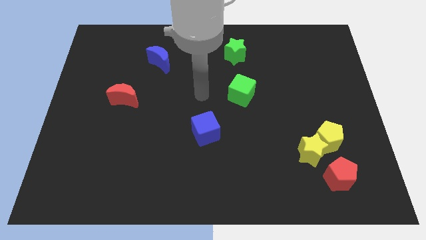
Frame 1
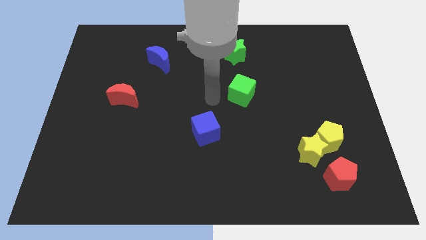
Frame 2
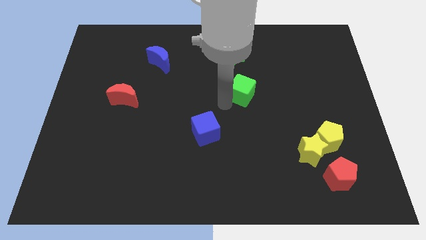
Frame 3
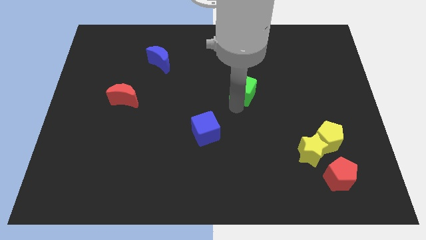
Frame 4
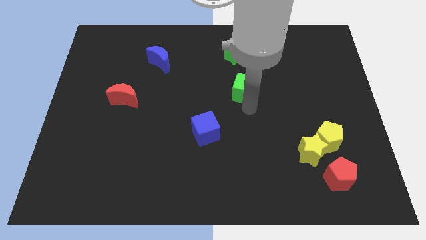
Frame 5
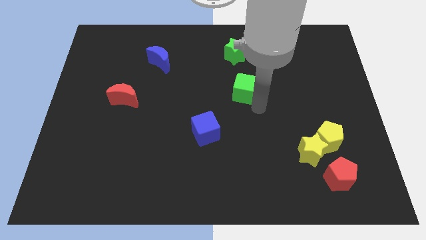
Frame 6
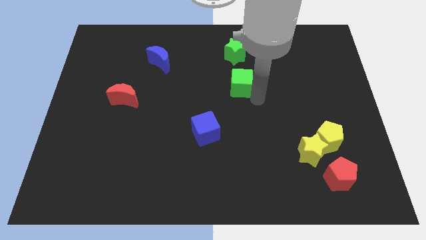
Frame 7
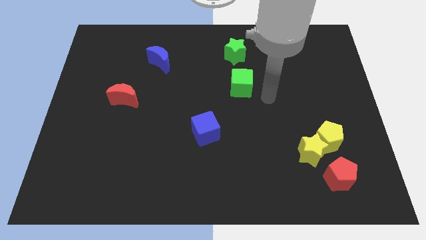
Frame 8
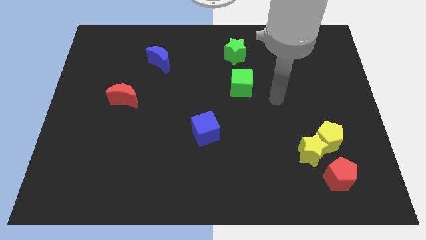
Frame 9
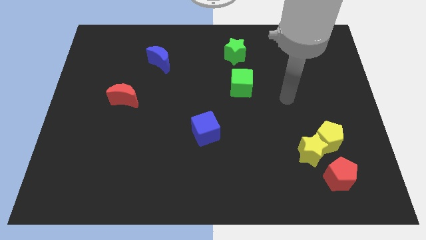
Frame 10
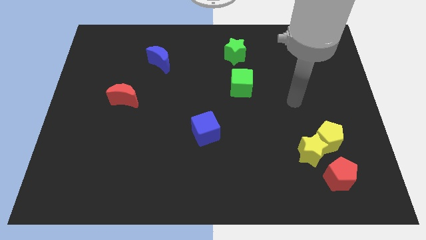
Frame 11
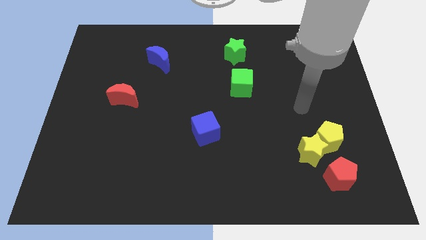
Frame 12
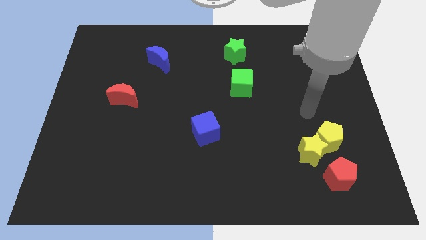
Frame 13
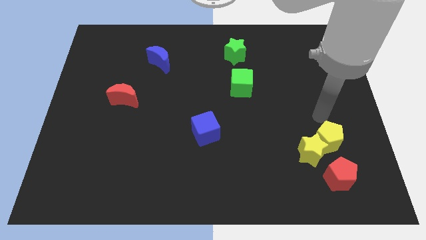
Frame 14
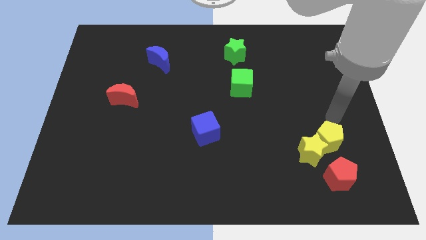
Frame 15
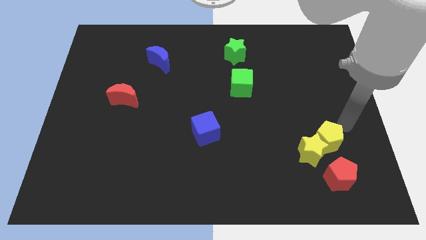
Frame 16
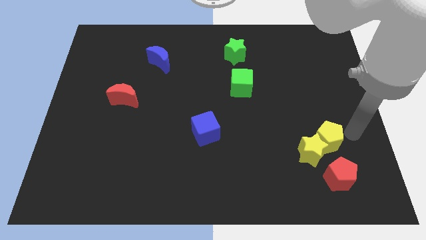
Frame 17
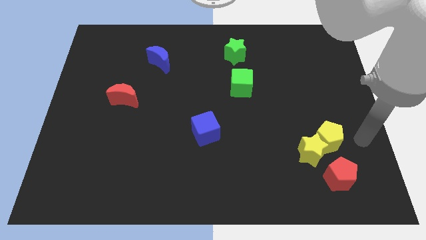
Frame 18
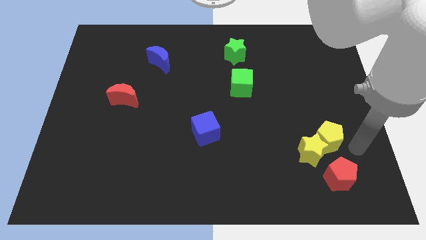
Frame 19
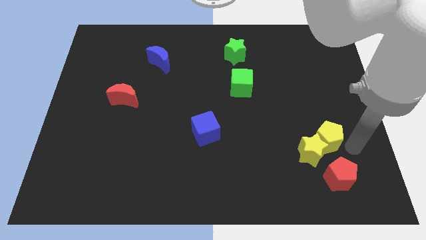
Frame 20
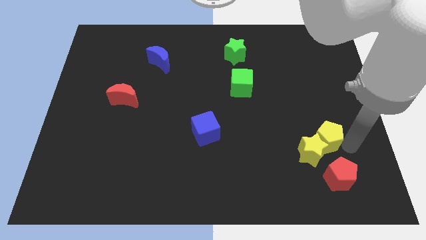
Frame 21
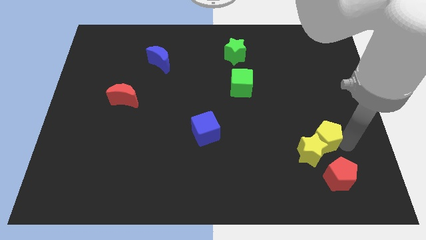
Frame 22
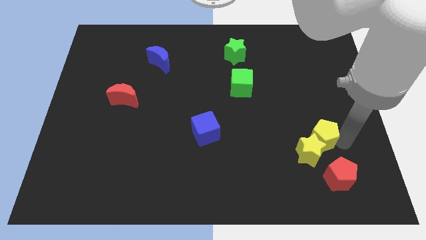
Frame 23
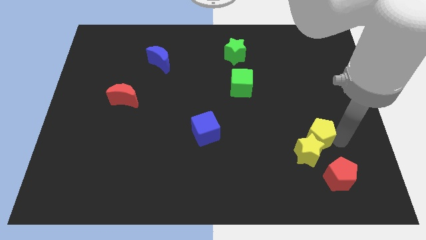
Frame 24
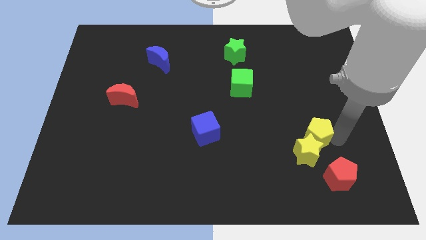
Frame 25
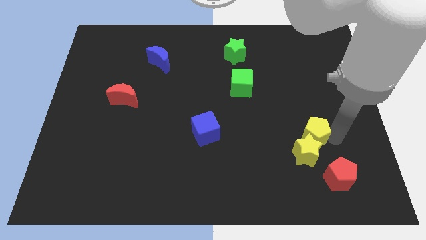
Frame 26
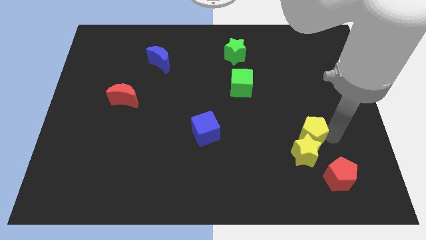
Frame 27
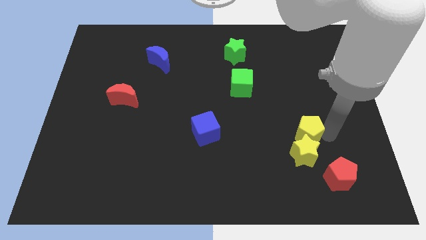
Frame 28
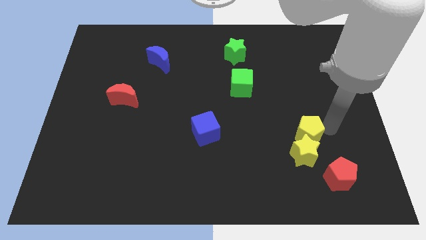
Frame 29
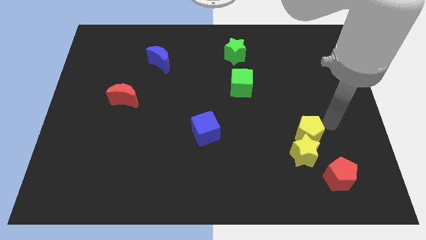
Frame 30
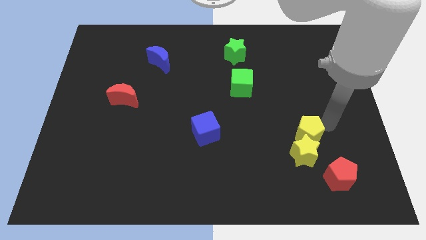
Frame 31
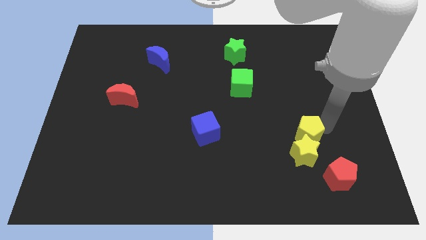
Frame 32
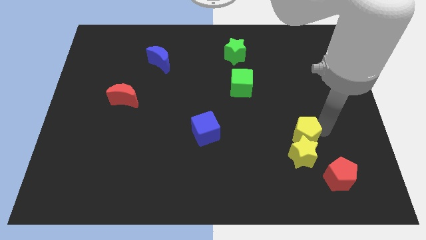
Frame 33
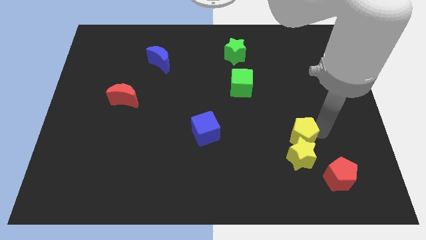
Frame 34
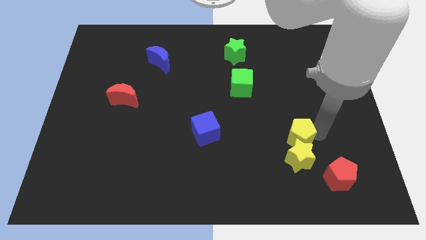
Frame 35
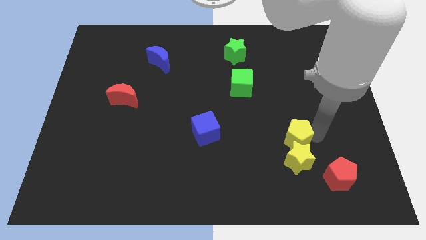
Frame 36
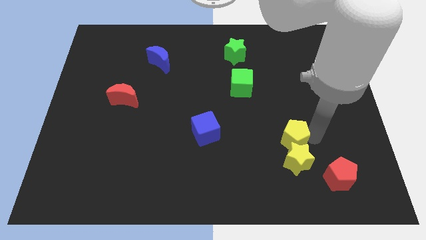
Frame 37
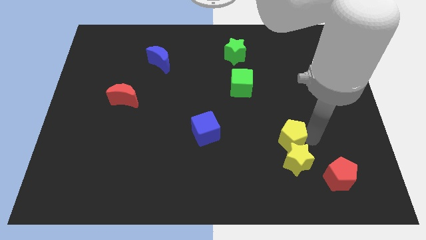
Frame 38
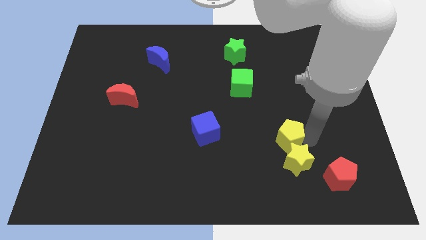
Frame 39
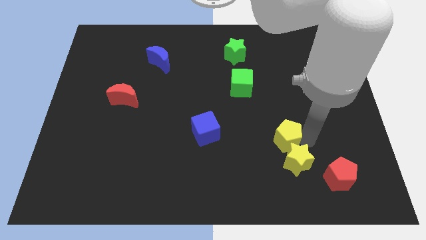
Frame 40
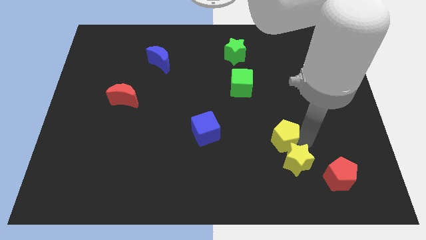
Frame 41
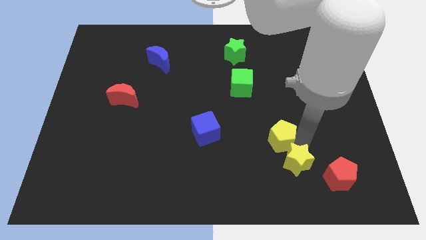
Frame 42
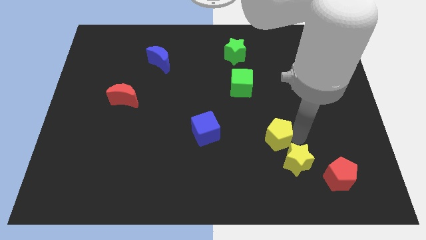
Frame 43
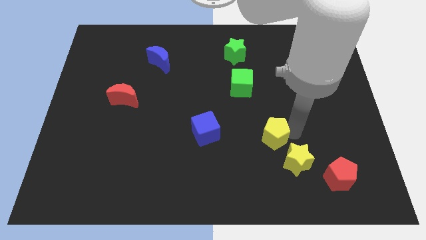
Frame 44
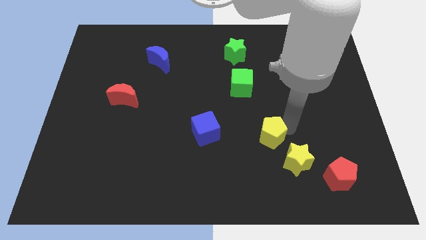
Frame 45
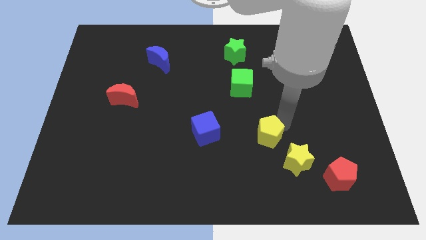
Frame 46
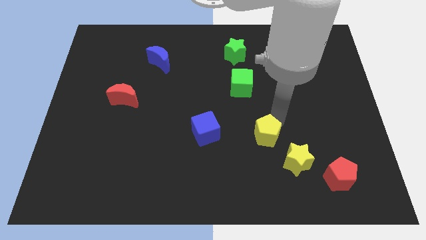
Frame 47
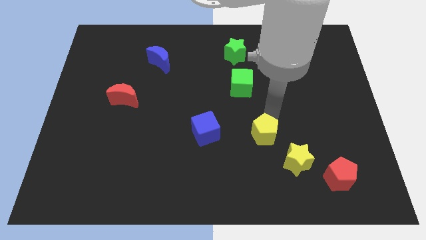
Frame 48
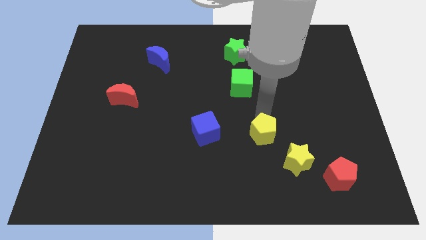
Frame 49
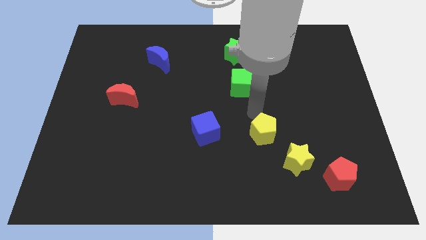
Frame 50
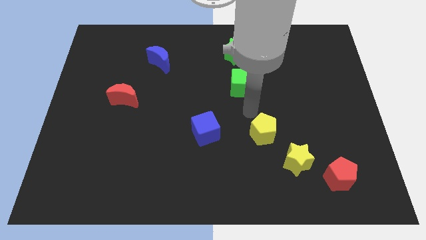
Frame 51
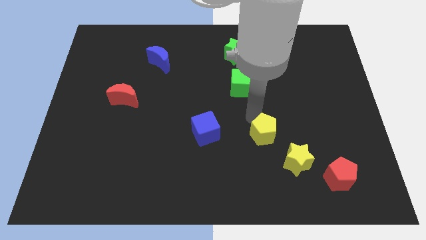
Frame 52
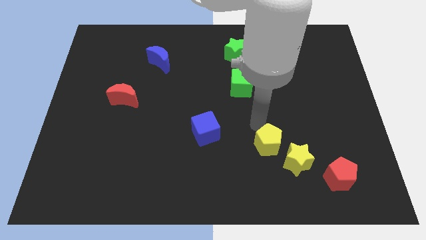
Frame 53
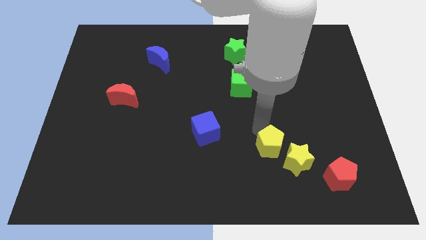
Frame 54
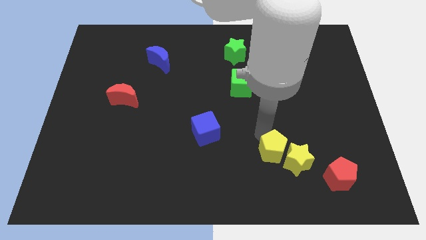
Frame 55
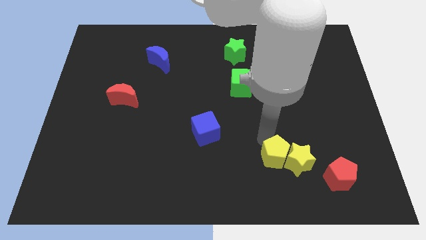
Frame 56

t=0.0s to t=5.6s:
slide the yellow pentagon to the bottom left side of the yellow star

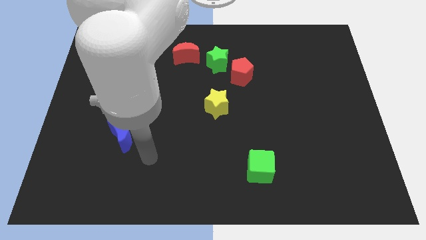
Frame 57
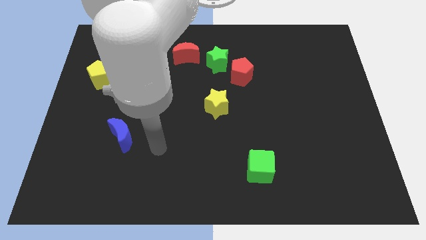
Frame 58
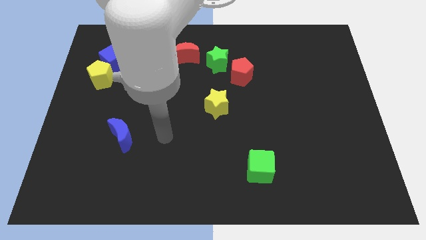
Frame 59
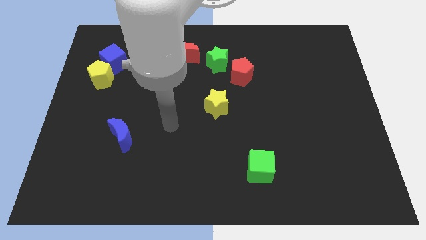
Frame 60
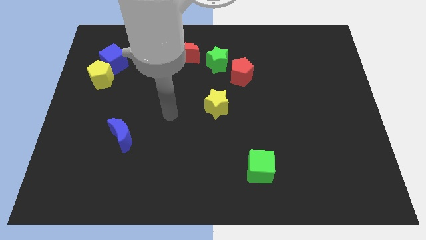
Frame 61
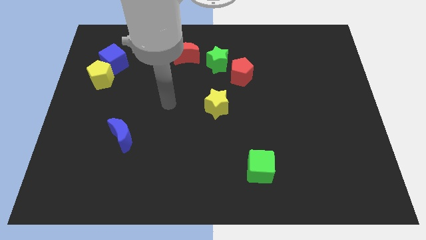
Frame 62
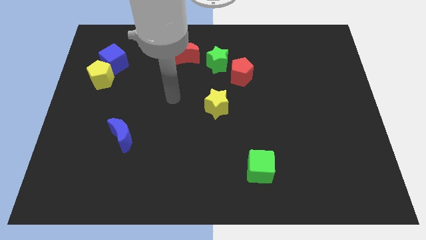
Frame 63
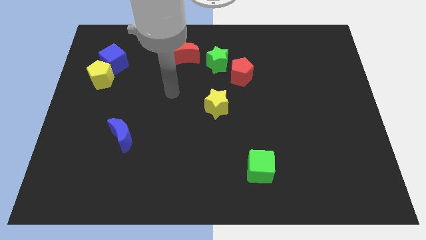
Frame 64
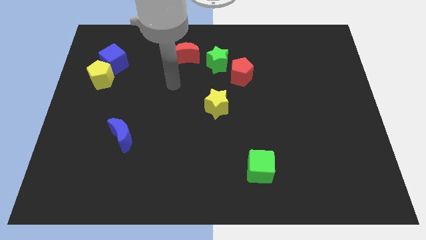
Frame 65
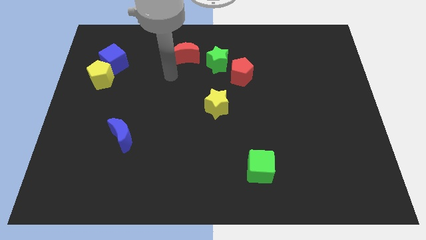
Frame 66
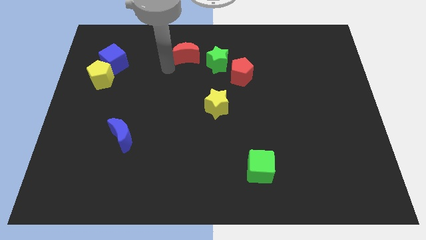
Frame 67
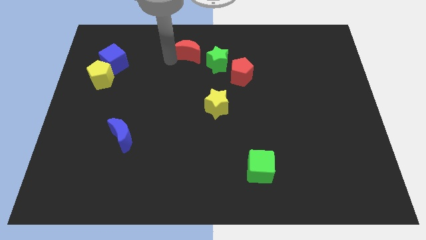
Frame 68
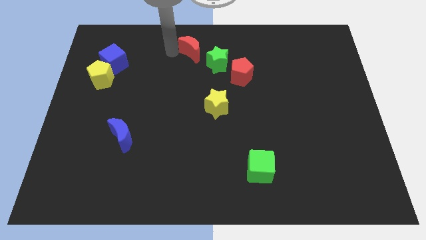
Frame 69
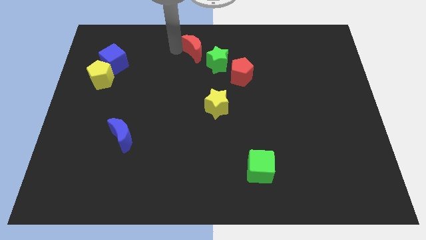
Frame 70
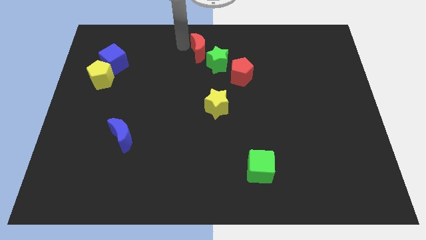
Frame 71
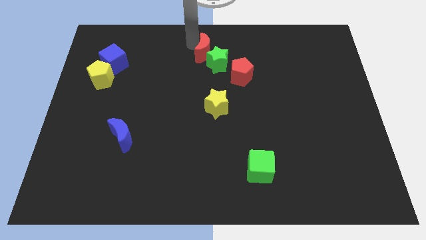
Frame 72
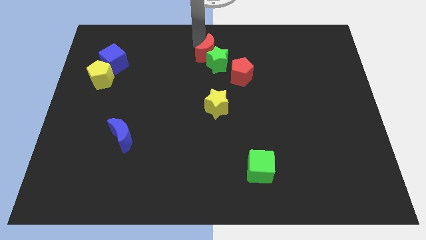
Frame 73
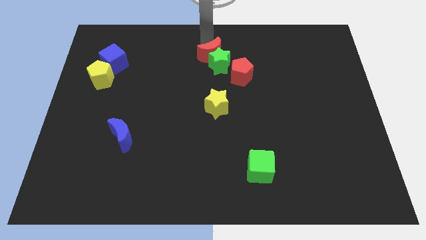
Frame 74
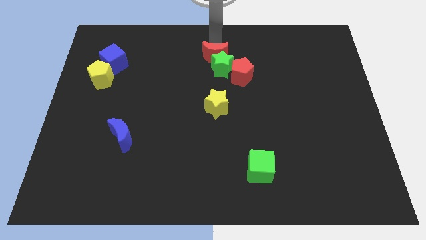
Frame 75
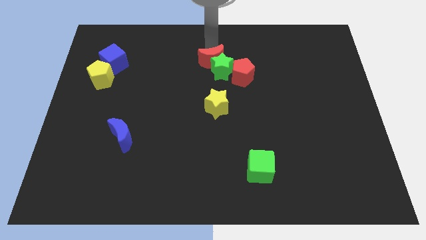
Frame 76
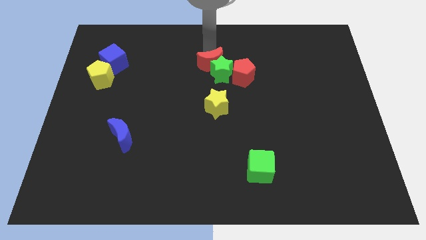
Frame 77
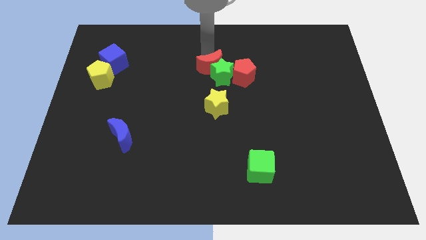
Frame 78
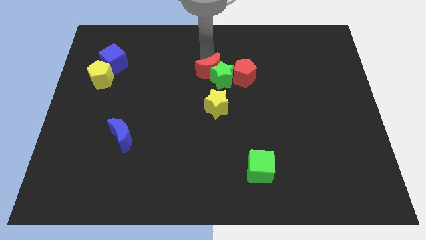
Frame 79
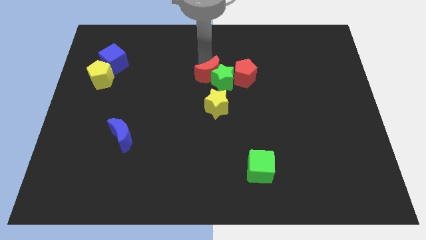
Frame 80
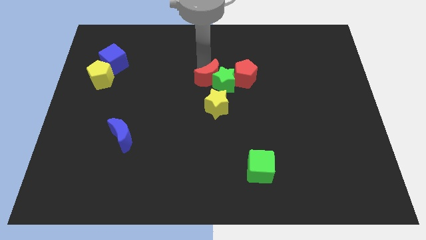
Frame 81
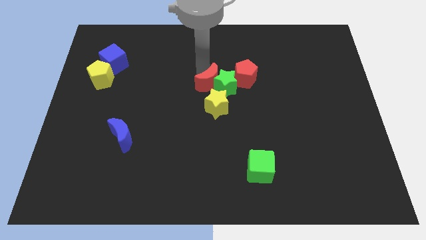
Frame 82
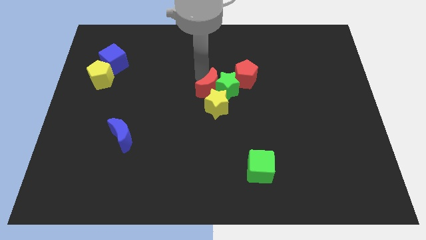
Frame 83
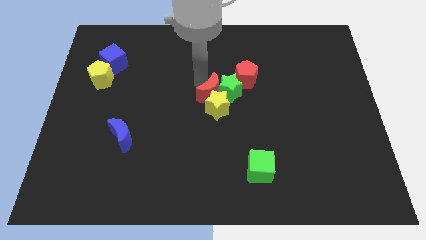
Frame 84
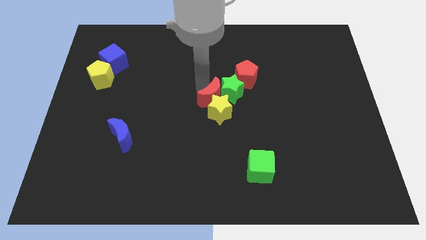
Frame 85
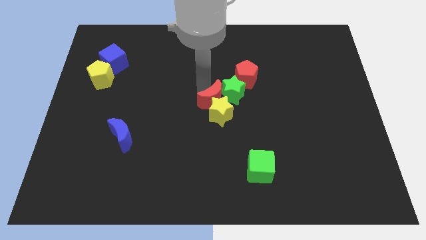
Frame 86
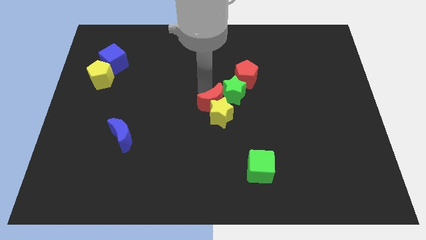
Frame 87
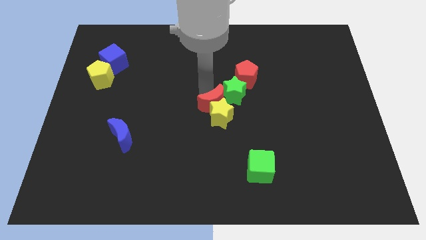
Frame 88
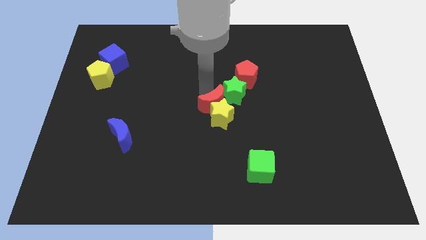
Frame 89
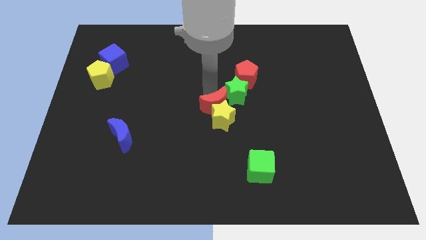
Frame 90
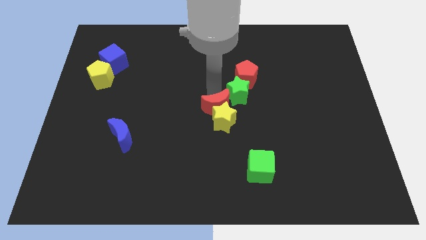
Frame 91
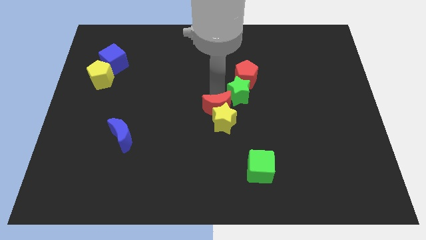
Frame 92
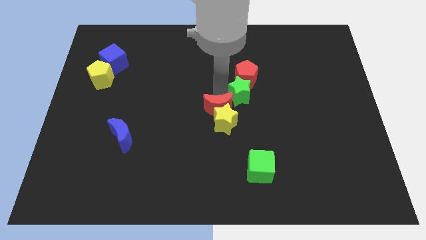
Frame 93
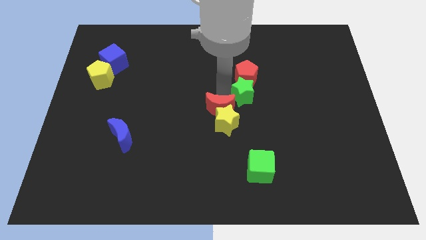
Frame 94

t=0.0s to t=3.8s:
slide the green star to the bottom right of the red pentagon
